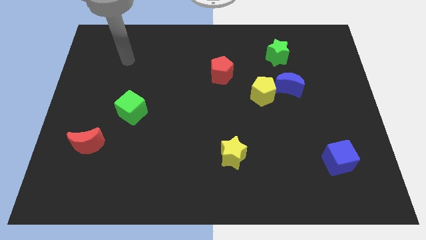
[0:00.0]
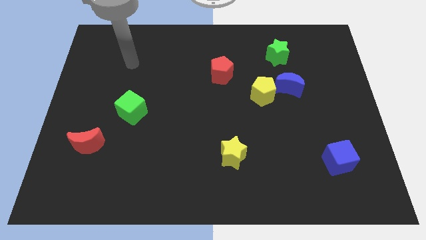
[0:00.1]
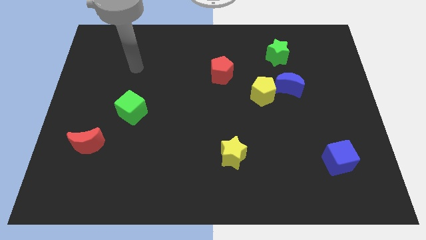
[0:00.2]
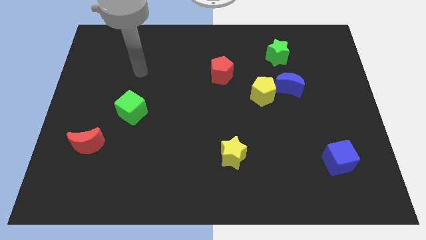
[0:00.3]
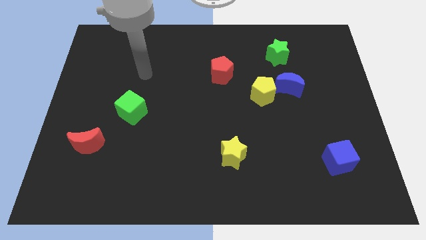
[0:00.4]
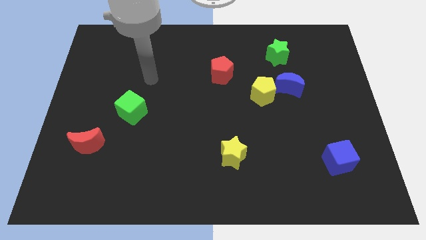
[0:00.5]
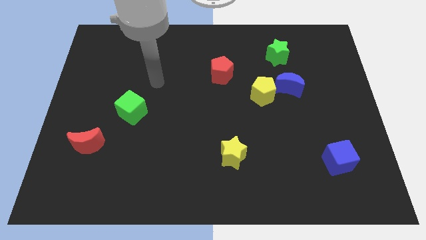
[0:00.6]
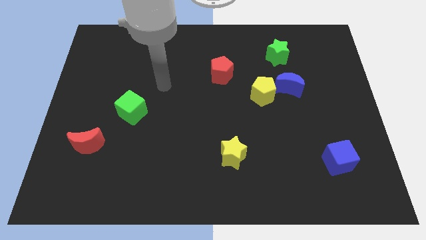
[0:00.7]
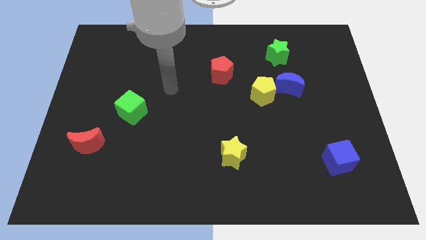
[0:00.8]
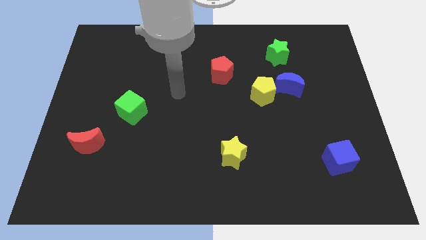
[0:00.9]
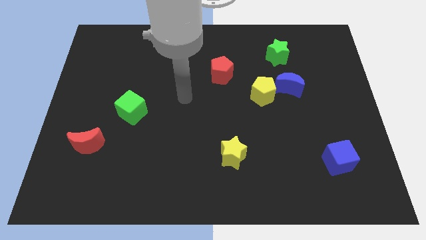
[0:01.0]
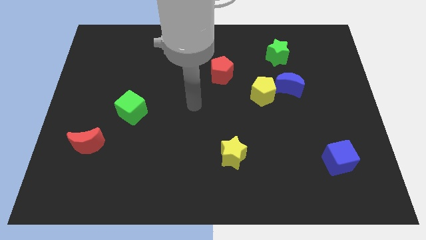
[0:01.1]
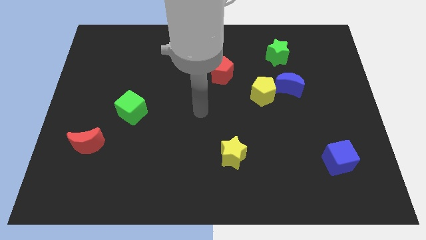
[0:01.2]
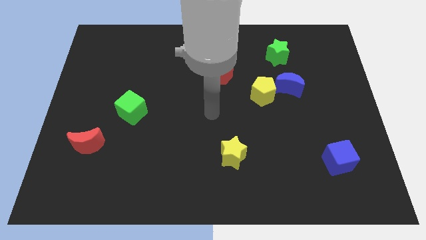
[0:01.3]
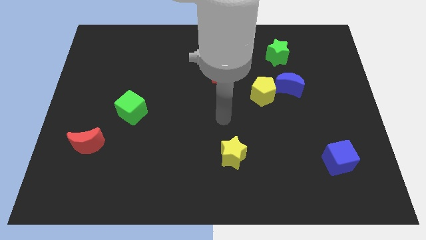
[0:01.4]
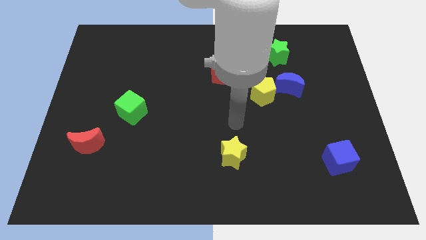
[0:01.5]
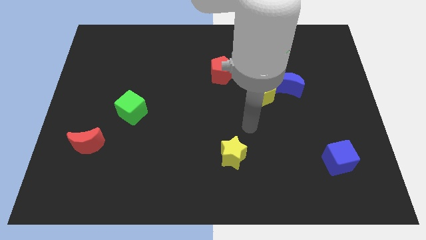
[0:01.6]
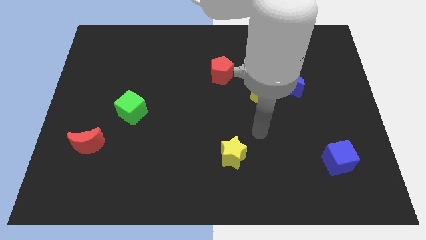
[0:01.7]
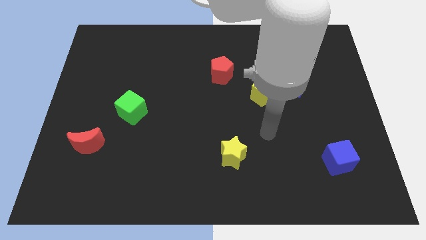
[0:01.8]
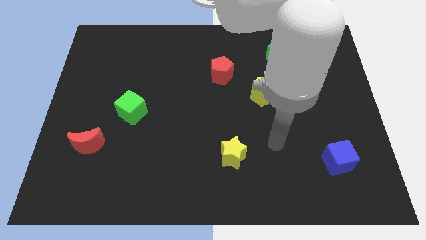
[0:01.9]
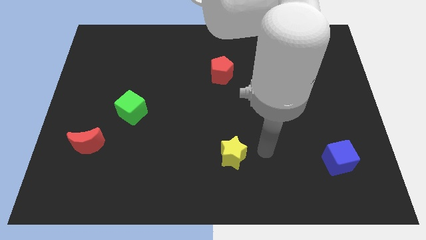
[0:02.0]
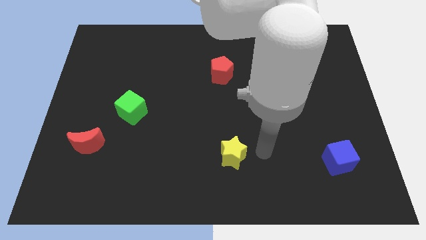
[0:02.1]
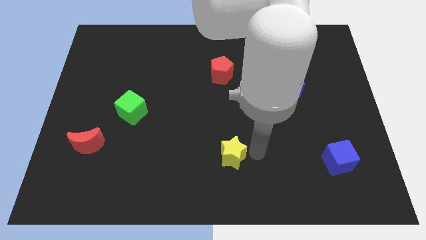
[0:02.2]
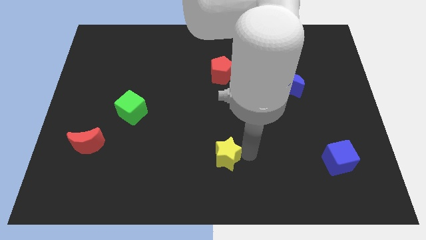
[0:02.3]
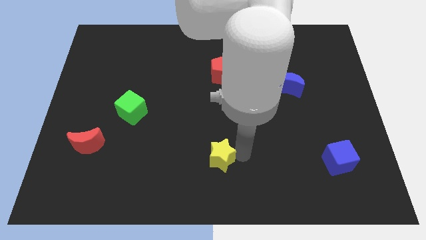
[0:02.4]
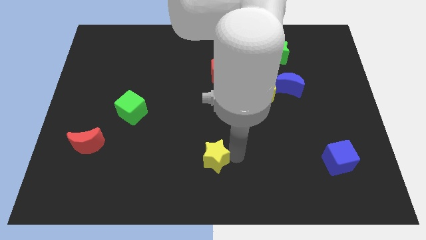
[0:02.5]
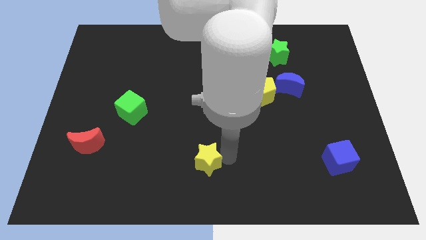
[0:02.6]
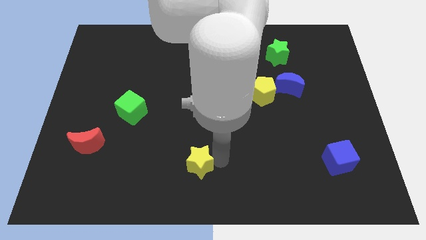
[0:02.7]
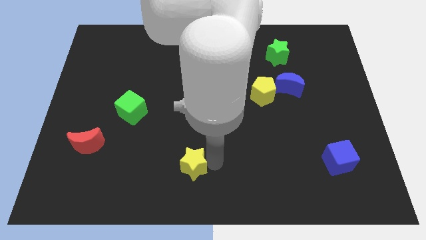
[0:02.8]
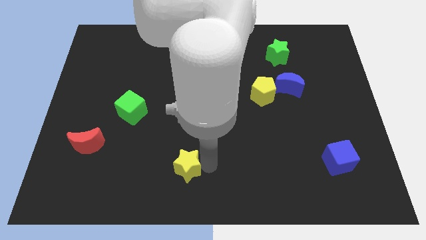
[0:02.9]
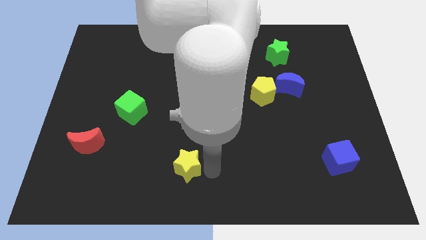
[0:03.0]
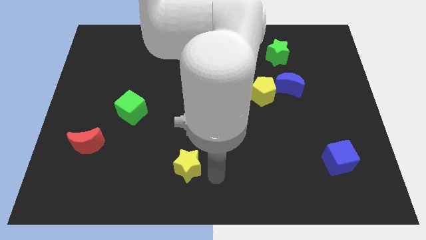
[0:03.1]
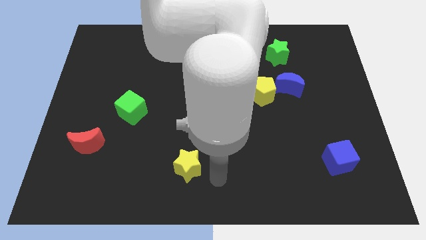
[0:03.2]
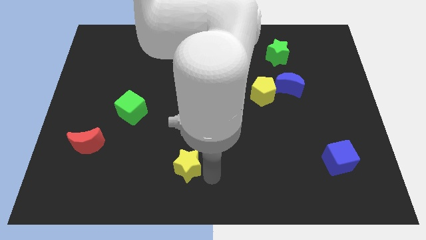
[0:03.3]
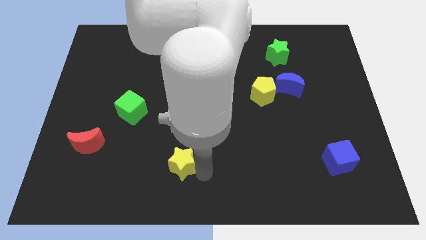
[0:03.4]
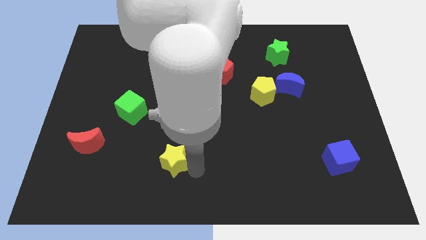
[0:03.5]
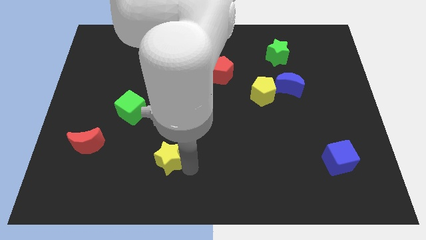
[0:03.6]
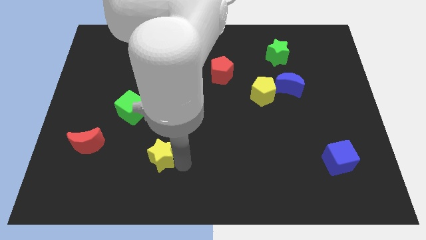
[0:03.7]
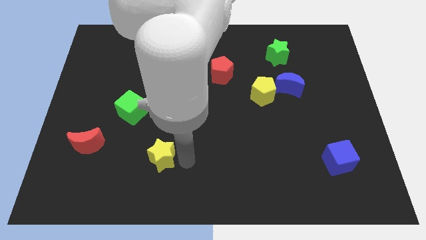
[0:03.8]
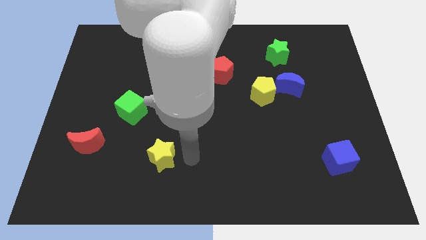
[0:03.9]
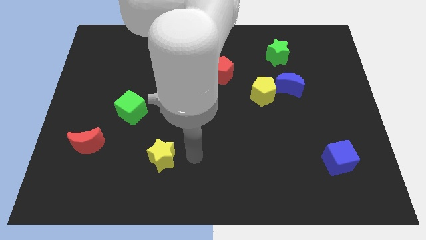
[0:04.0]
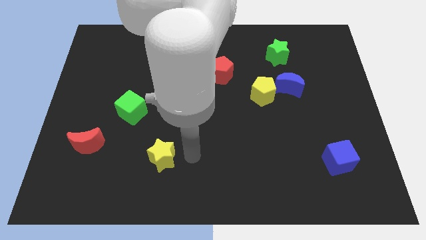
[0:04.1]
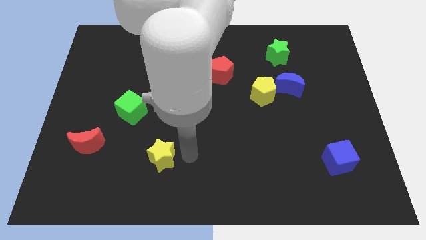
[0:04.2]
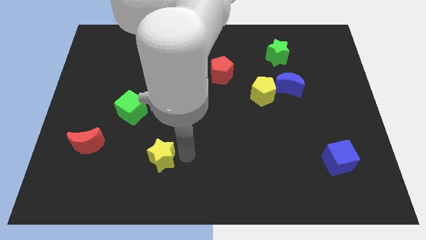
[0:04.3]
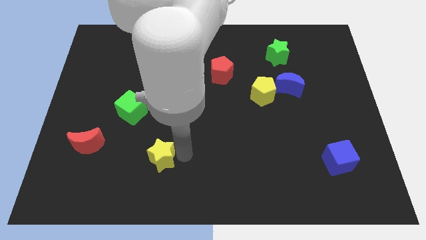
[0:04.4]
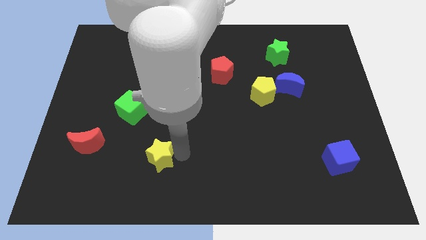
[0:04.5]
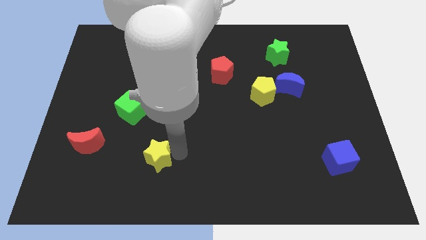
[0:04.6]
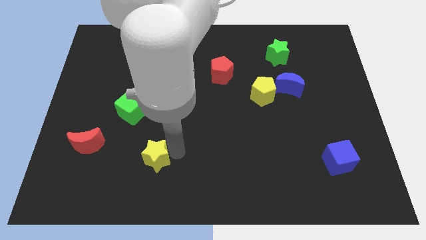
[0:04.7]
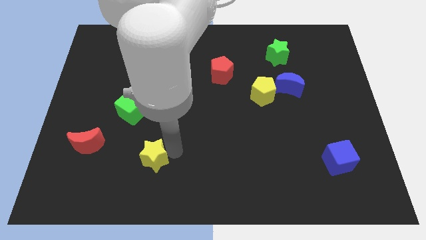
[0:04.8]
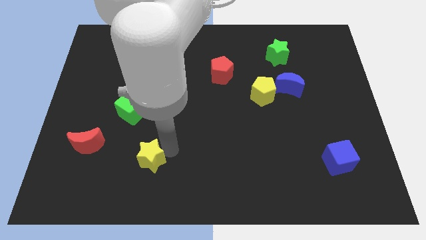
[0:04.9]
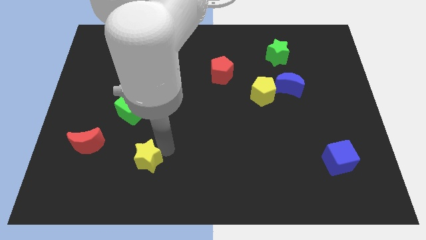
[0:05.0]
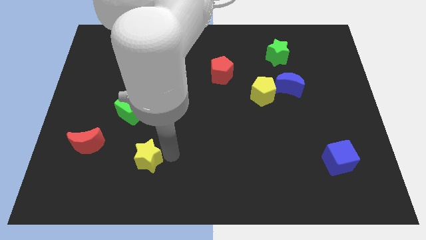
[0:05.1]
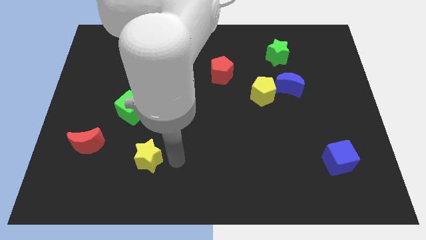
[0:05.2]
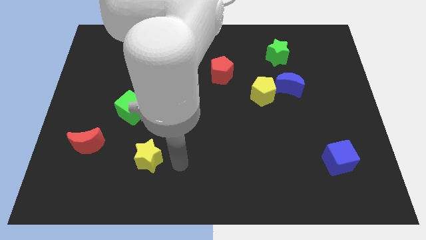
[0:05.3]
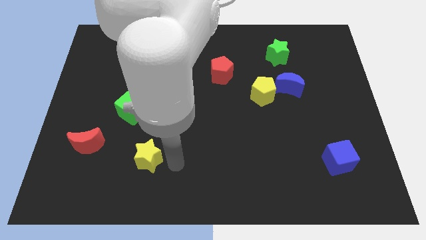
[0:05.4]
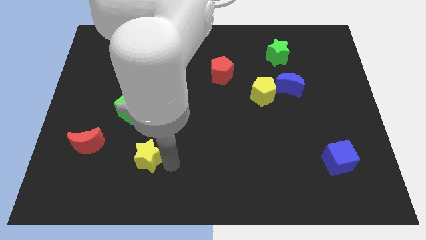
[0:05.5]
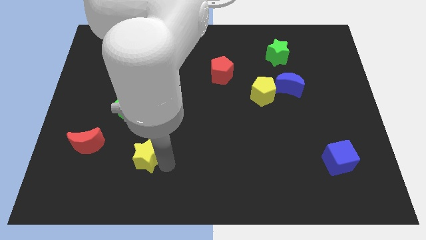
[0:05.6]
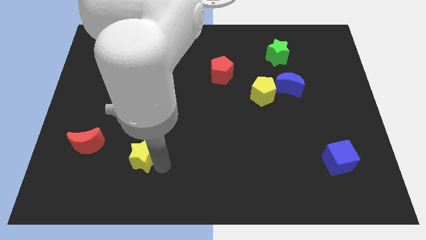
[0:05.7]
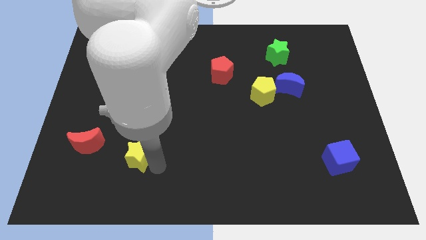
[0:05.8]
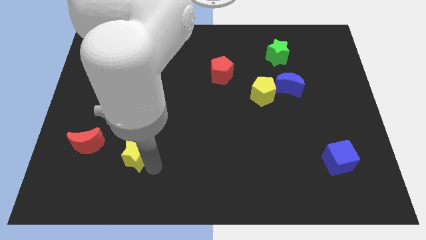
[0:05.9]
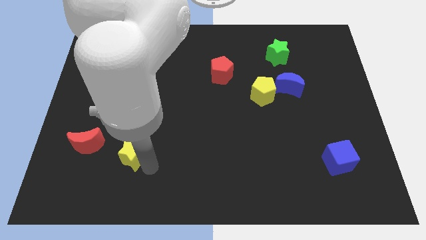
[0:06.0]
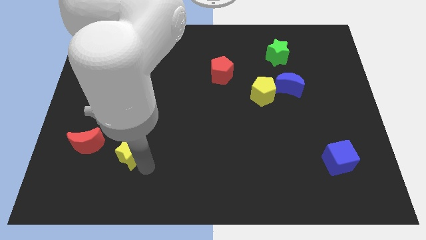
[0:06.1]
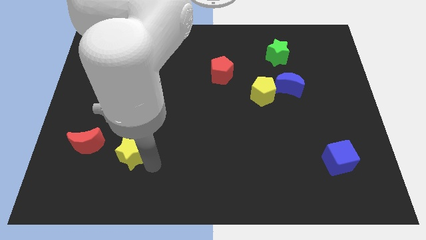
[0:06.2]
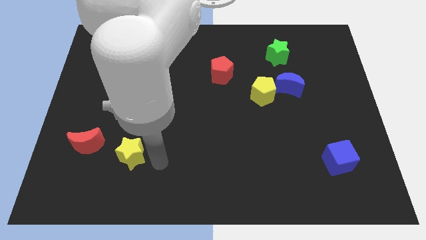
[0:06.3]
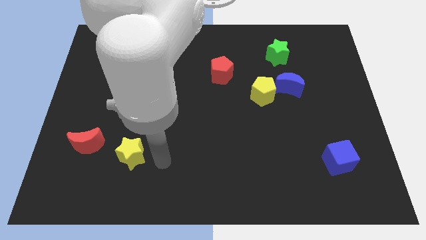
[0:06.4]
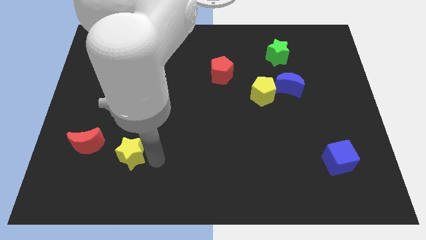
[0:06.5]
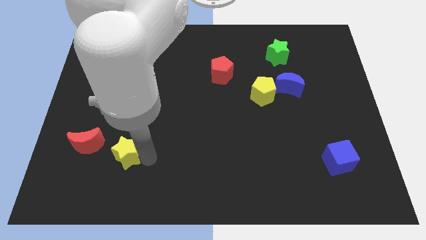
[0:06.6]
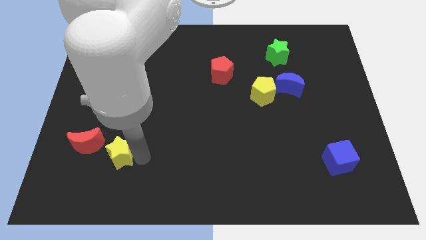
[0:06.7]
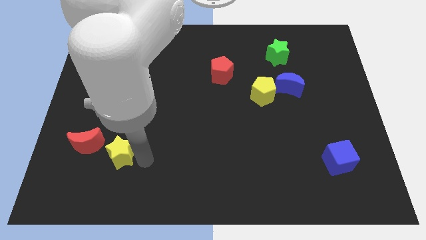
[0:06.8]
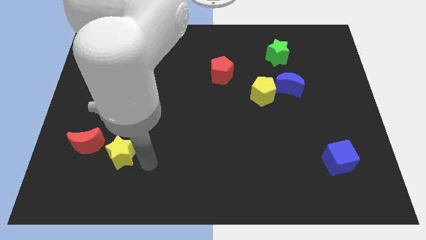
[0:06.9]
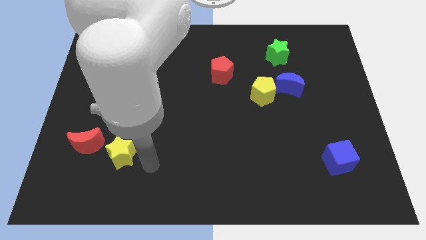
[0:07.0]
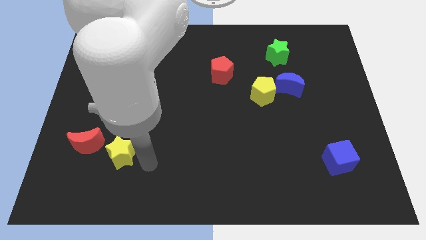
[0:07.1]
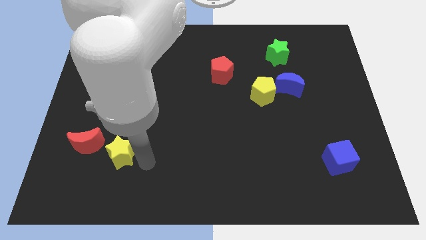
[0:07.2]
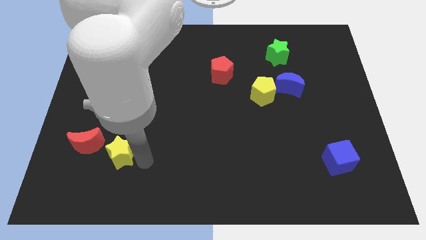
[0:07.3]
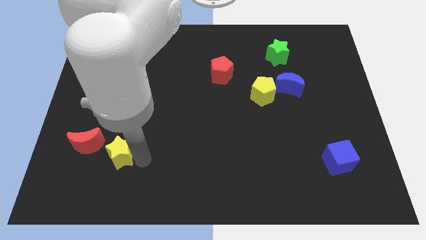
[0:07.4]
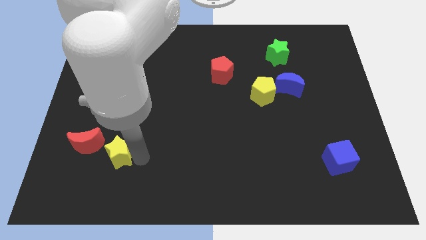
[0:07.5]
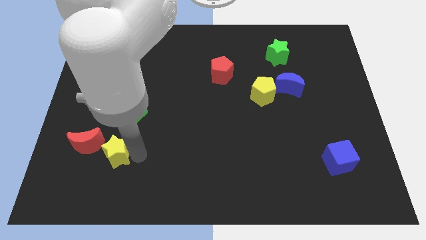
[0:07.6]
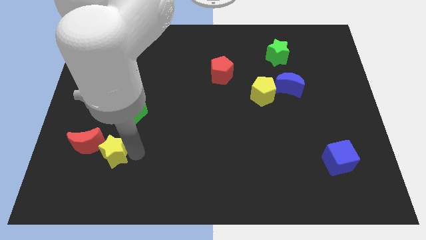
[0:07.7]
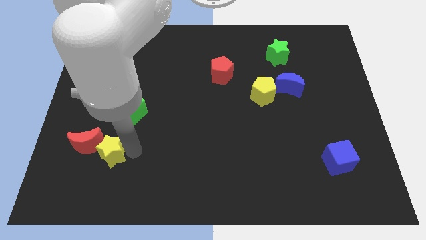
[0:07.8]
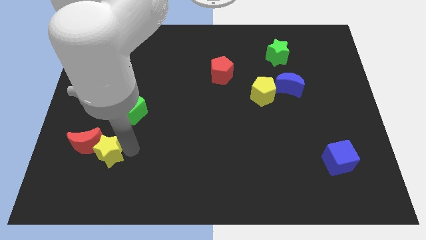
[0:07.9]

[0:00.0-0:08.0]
move the yellow star next to the red moon
